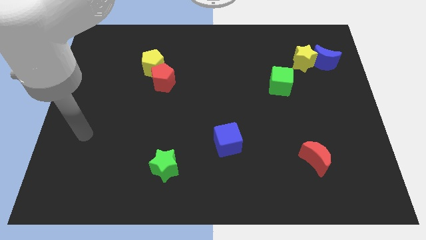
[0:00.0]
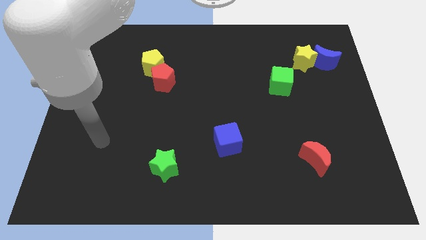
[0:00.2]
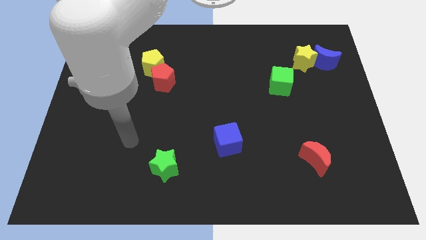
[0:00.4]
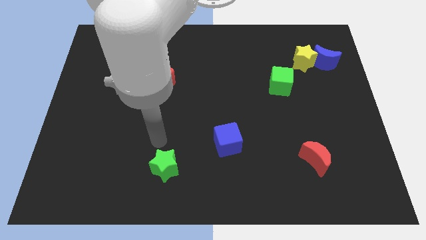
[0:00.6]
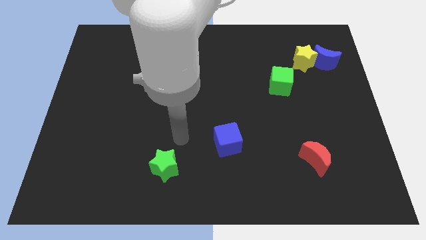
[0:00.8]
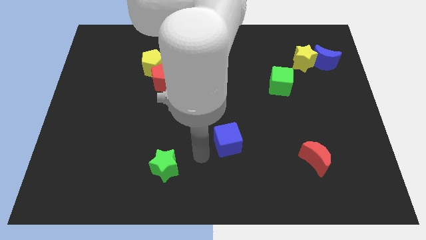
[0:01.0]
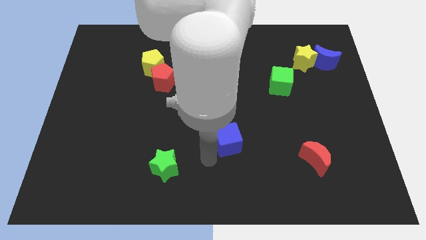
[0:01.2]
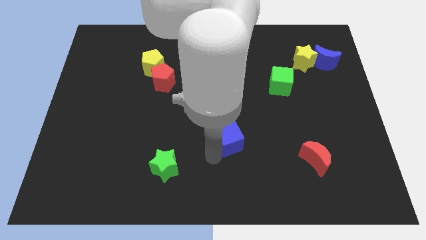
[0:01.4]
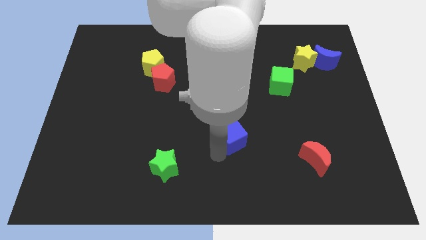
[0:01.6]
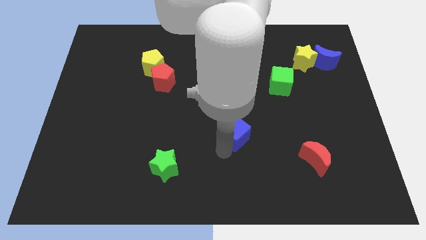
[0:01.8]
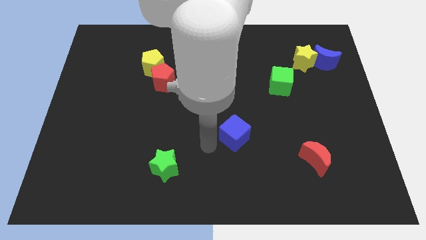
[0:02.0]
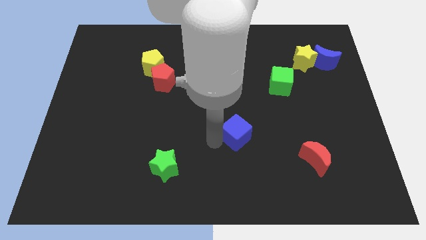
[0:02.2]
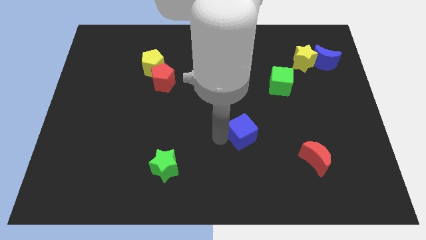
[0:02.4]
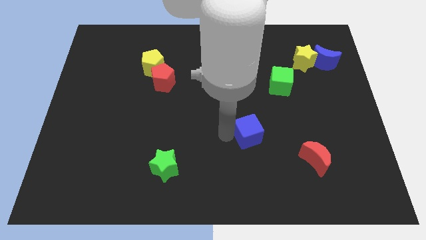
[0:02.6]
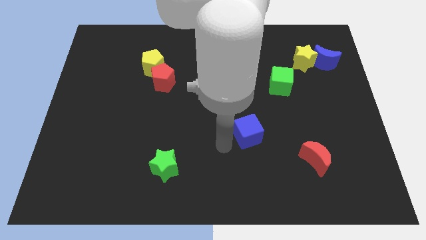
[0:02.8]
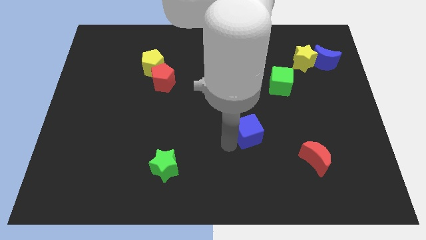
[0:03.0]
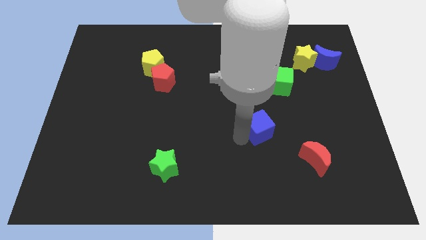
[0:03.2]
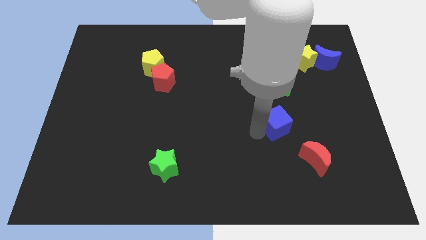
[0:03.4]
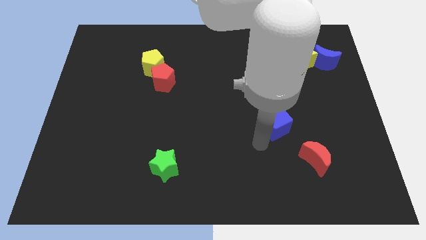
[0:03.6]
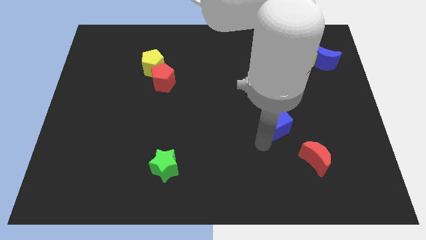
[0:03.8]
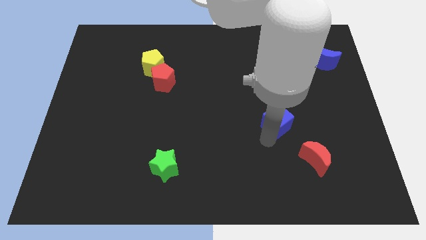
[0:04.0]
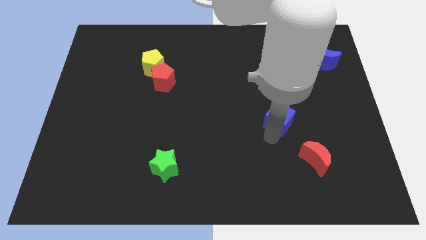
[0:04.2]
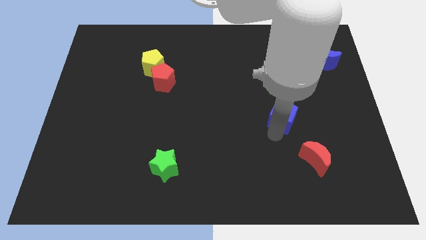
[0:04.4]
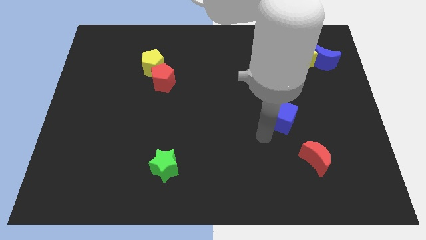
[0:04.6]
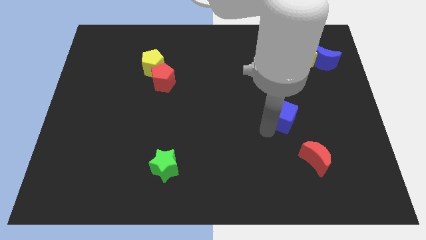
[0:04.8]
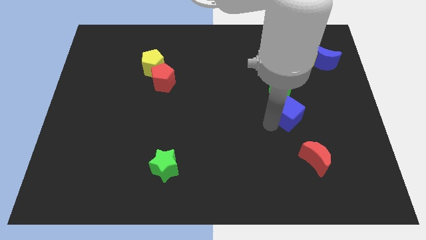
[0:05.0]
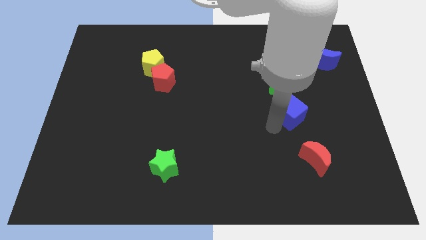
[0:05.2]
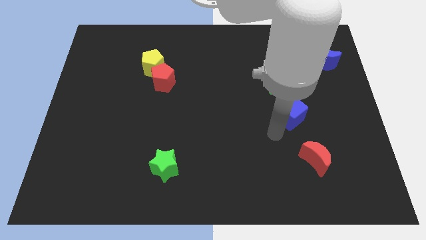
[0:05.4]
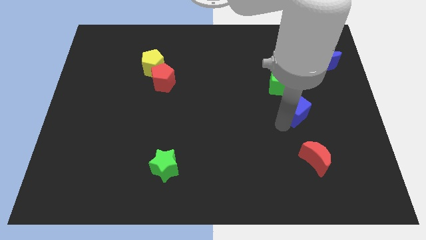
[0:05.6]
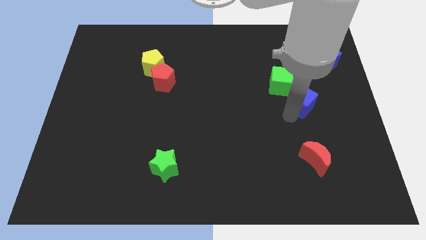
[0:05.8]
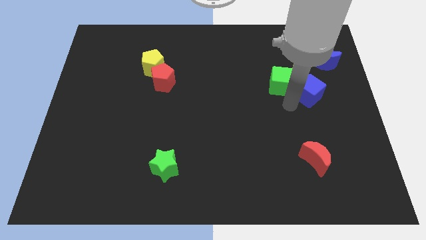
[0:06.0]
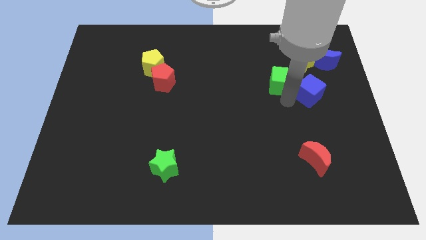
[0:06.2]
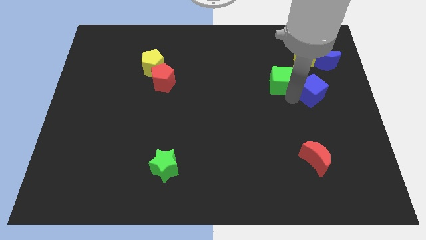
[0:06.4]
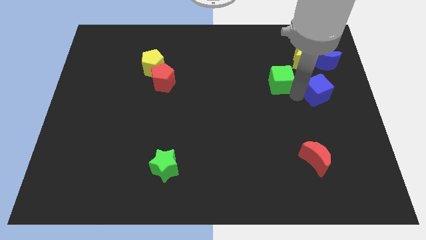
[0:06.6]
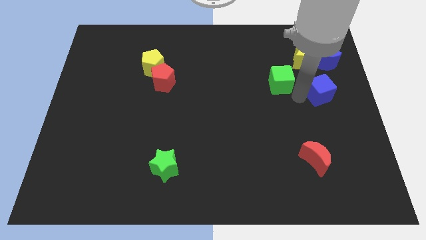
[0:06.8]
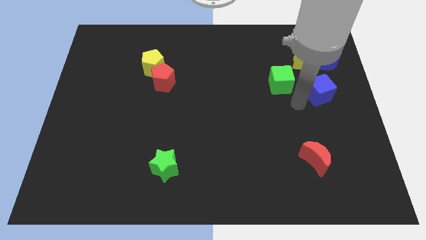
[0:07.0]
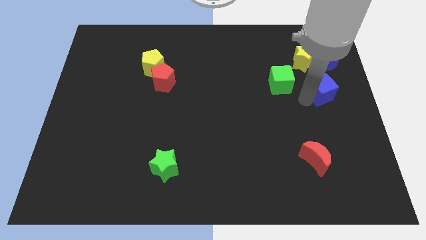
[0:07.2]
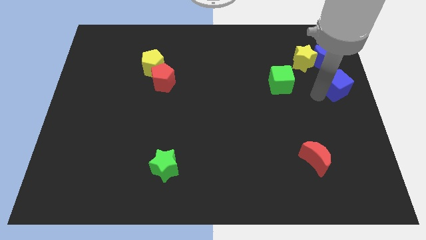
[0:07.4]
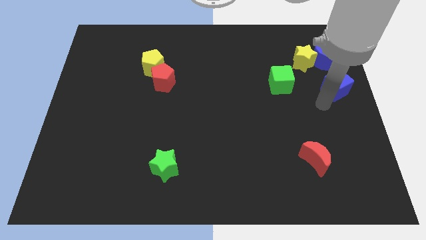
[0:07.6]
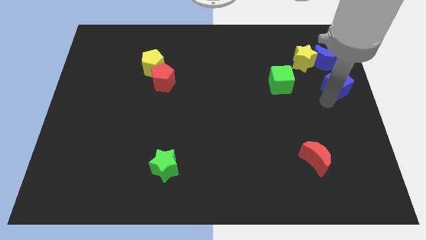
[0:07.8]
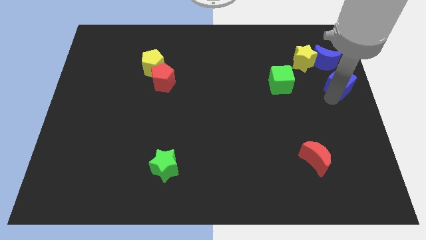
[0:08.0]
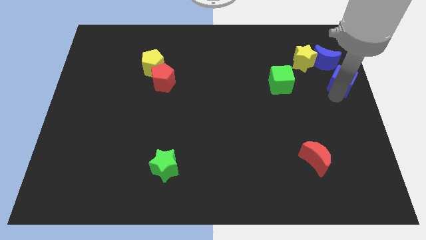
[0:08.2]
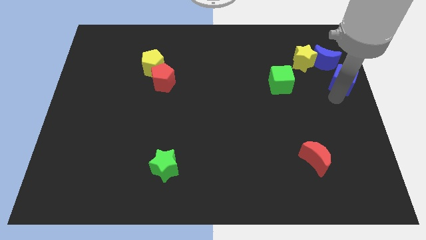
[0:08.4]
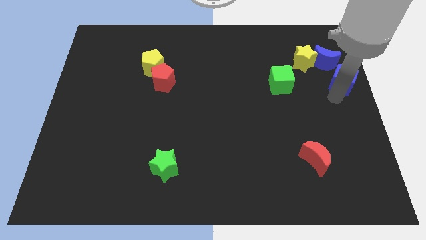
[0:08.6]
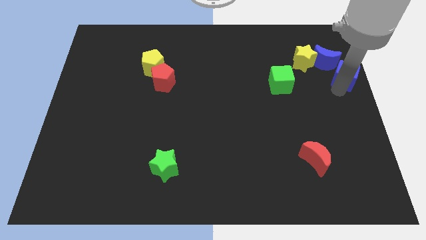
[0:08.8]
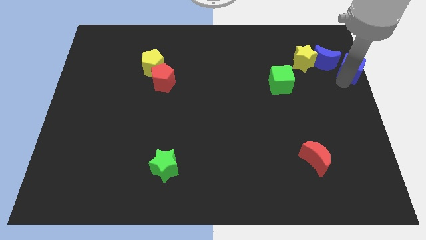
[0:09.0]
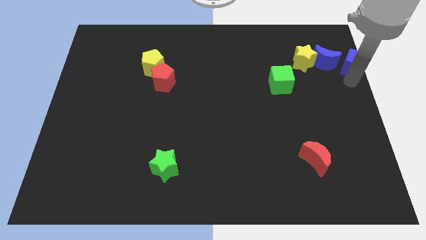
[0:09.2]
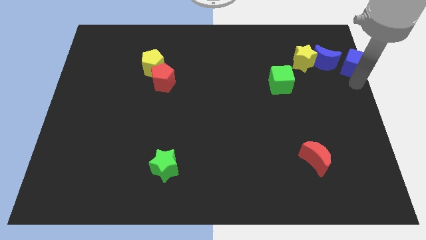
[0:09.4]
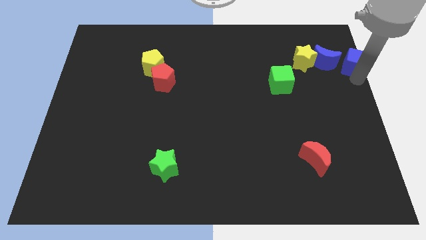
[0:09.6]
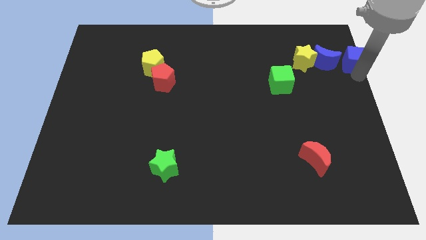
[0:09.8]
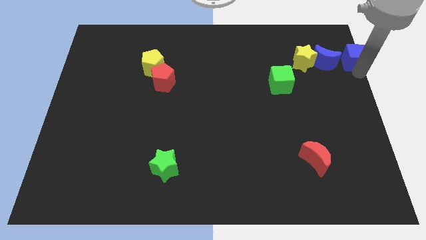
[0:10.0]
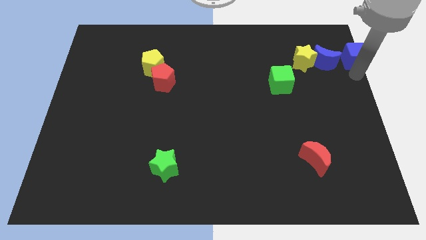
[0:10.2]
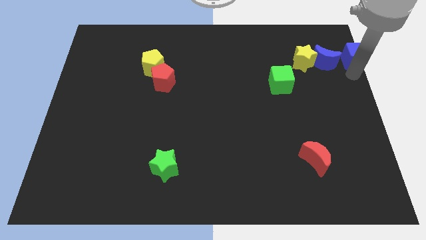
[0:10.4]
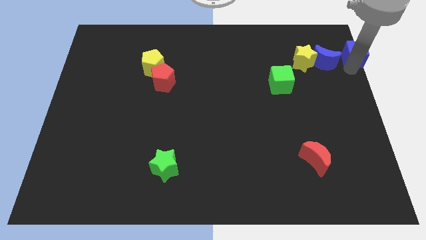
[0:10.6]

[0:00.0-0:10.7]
push the blue cube to the top right corner
